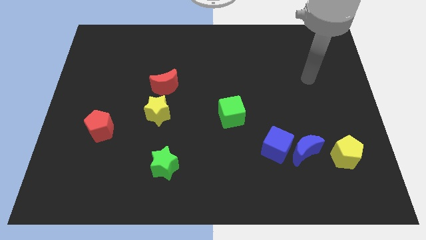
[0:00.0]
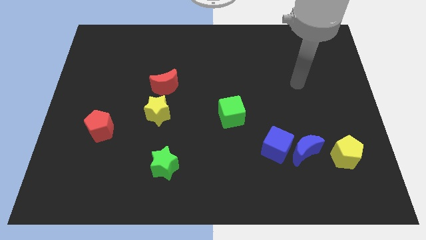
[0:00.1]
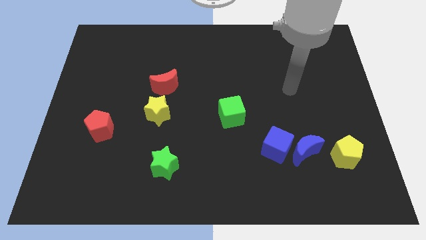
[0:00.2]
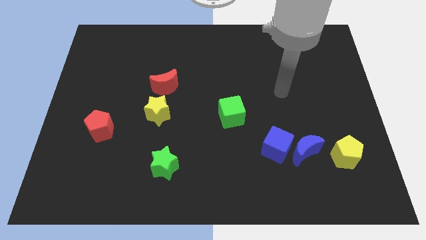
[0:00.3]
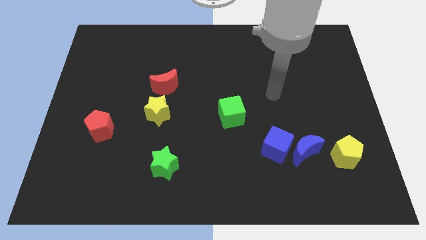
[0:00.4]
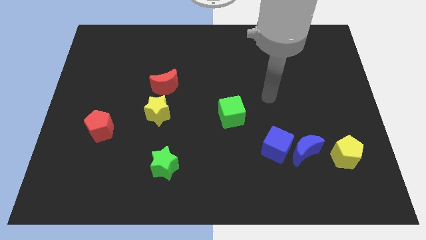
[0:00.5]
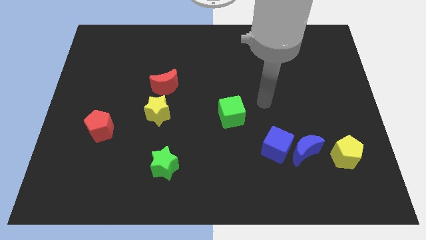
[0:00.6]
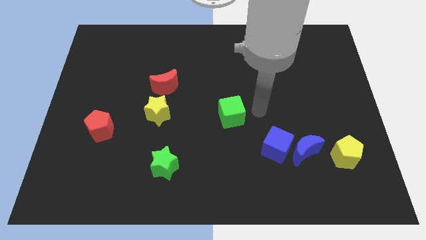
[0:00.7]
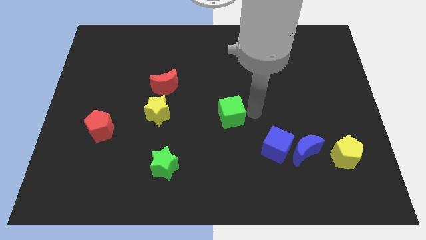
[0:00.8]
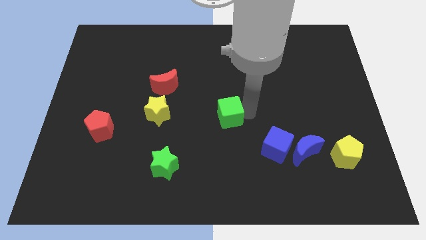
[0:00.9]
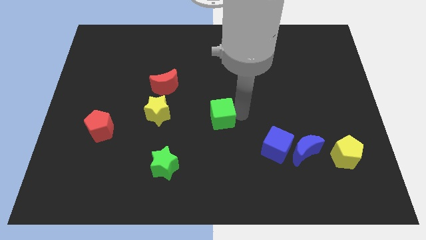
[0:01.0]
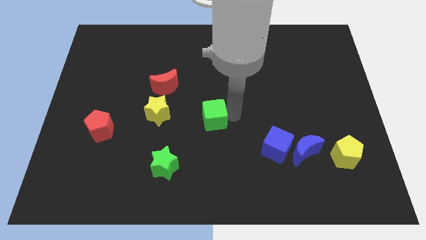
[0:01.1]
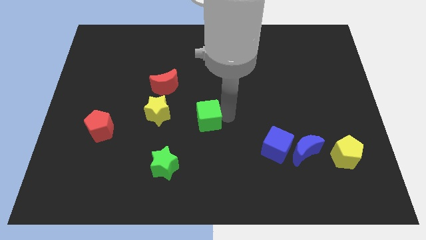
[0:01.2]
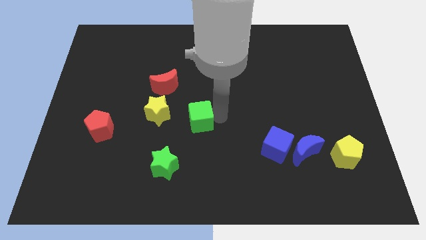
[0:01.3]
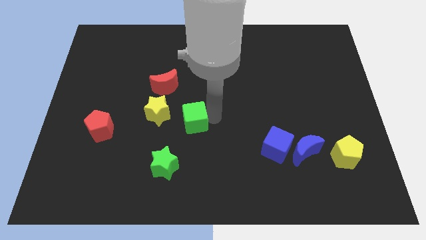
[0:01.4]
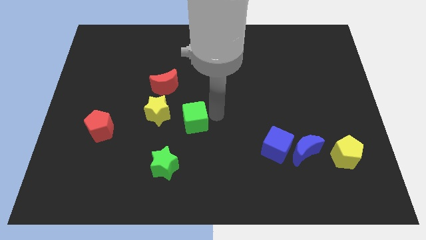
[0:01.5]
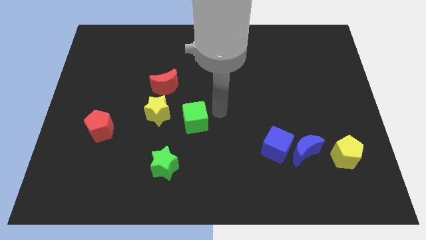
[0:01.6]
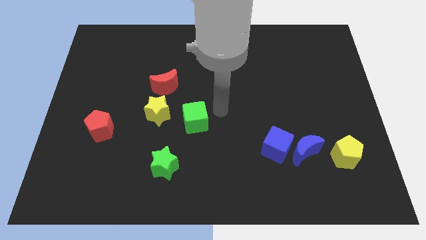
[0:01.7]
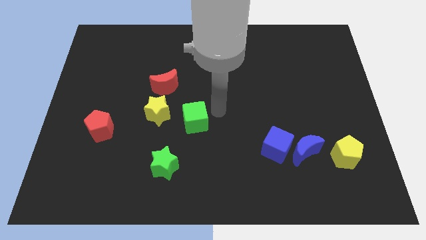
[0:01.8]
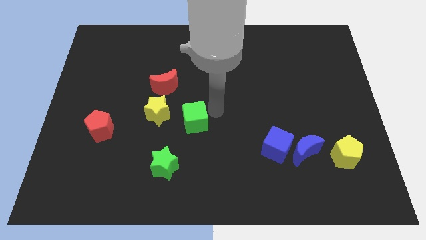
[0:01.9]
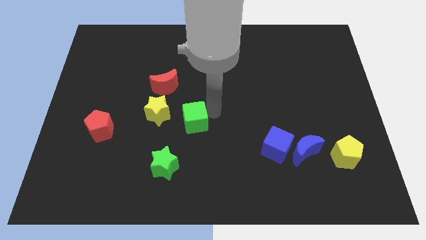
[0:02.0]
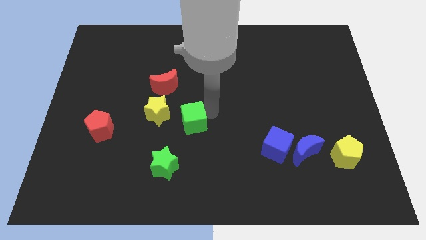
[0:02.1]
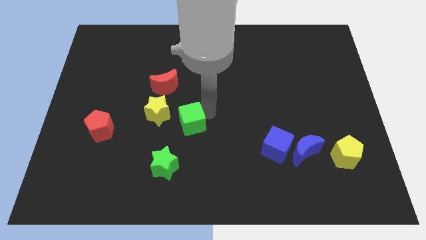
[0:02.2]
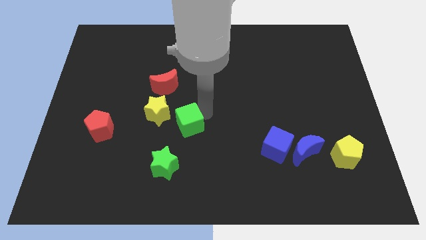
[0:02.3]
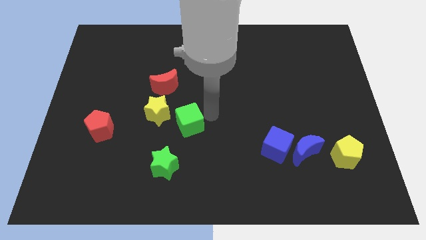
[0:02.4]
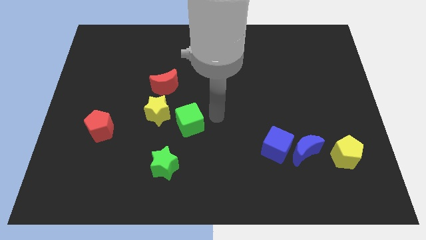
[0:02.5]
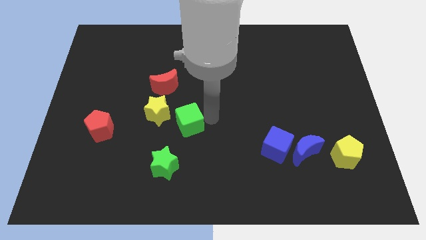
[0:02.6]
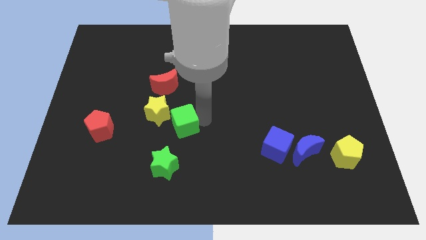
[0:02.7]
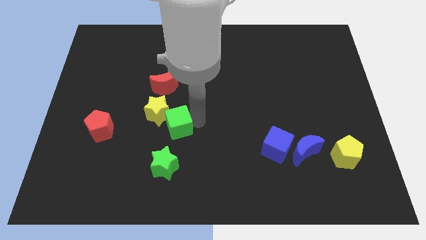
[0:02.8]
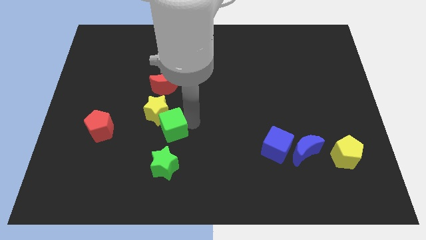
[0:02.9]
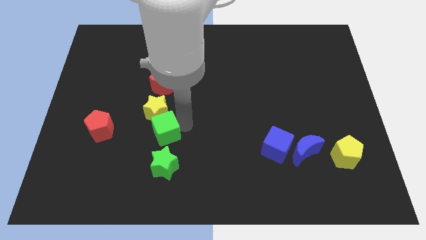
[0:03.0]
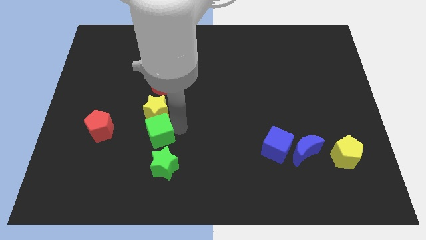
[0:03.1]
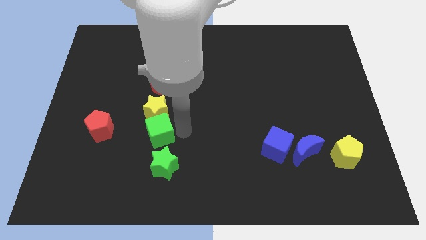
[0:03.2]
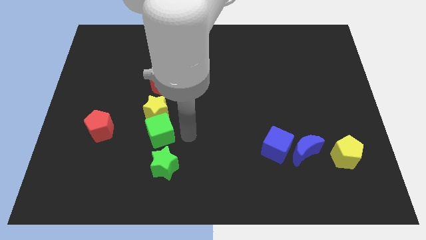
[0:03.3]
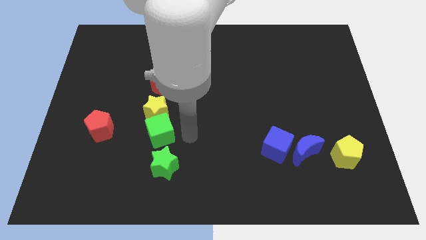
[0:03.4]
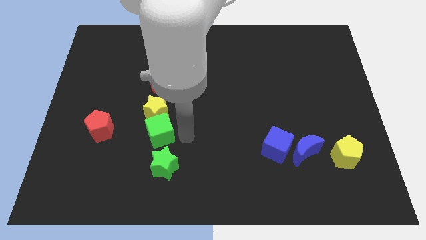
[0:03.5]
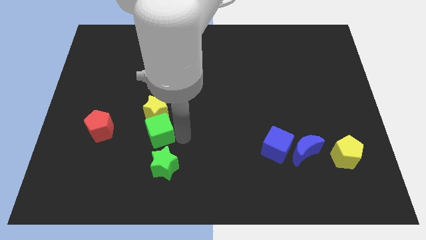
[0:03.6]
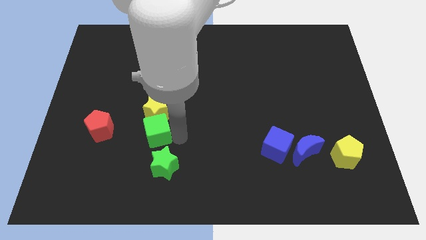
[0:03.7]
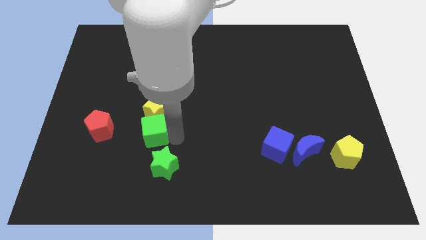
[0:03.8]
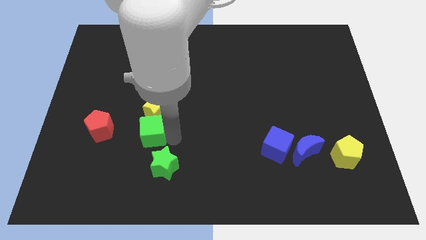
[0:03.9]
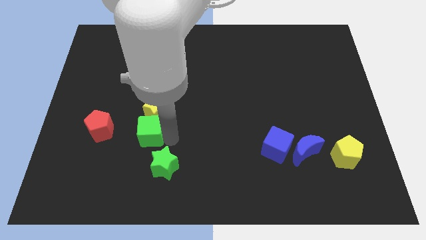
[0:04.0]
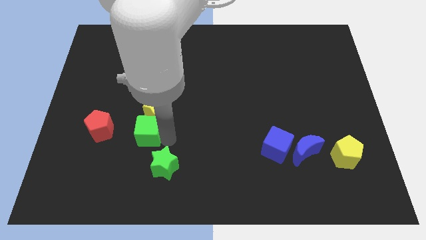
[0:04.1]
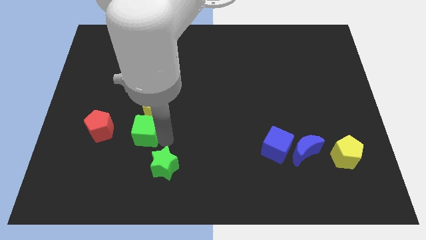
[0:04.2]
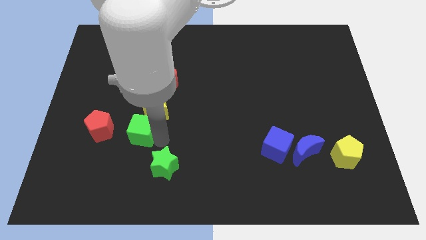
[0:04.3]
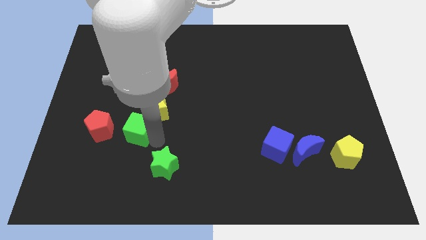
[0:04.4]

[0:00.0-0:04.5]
push the green cube to the left

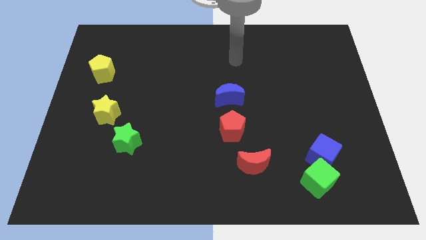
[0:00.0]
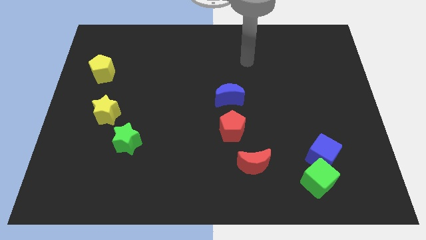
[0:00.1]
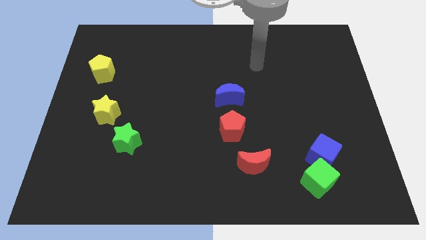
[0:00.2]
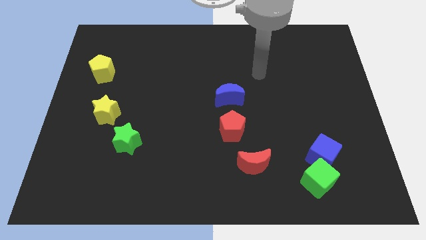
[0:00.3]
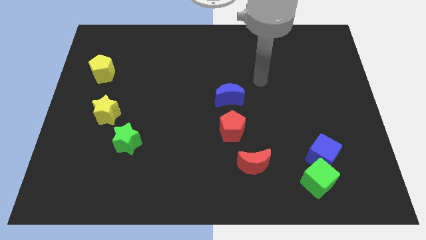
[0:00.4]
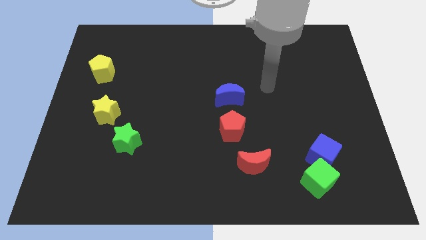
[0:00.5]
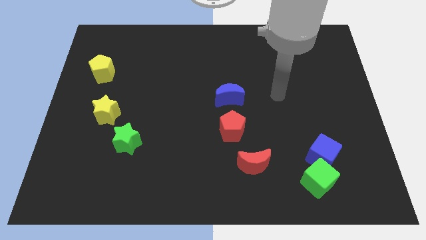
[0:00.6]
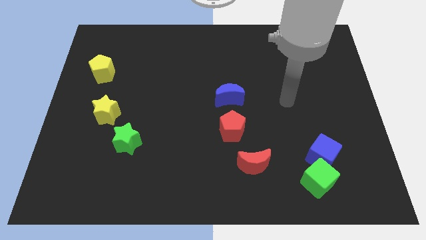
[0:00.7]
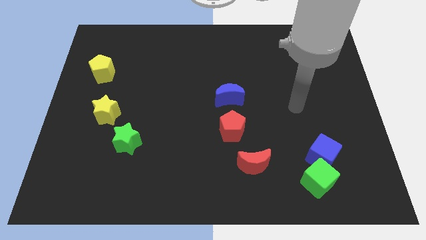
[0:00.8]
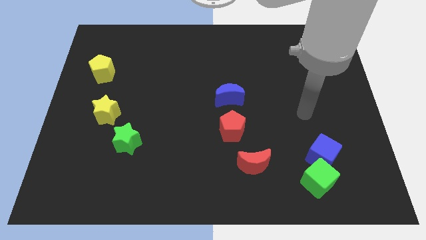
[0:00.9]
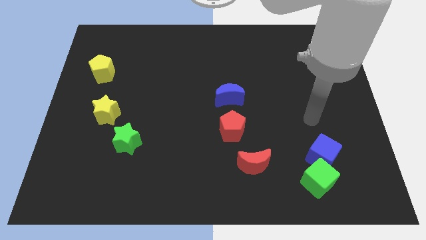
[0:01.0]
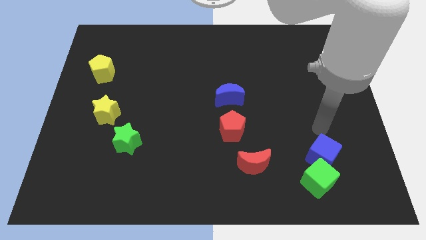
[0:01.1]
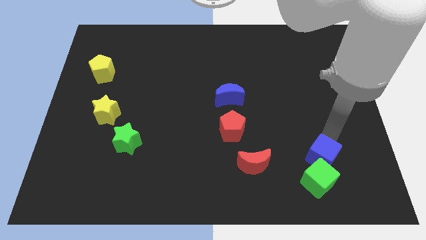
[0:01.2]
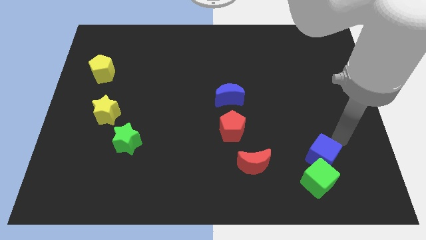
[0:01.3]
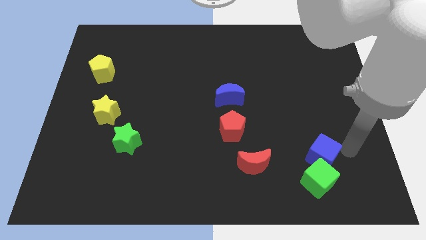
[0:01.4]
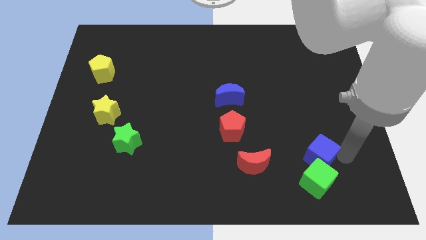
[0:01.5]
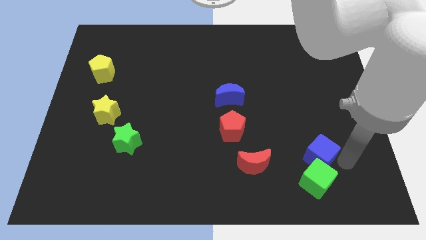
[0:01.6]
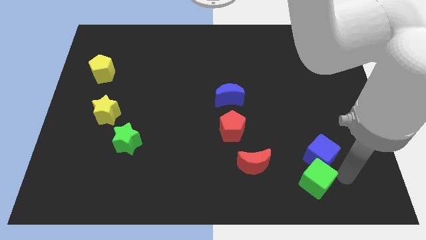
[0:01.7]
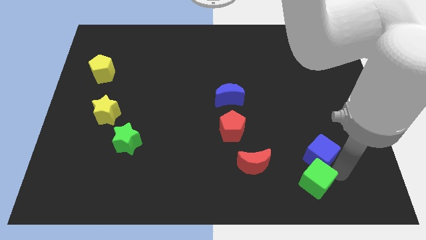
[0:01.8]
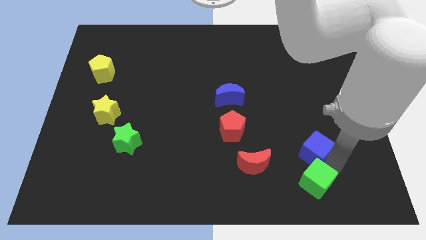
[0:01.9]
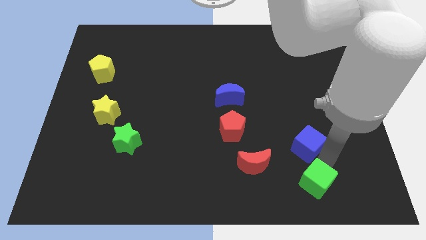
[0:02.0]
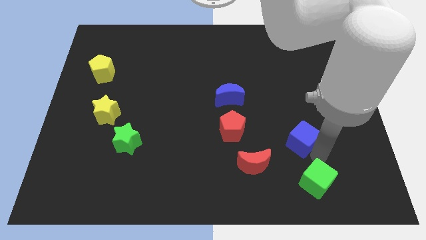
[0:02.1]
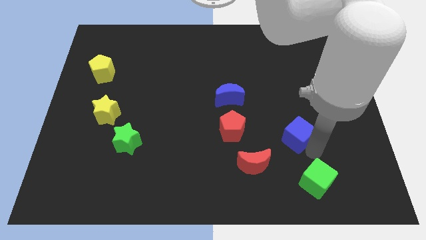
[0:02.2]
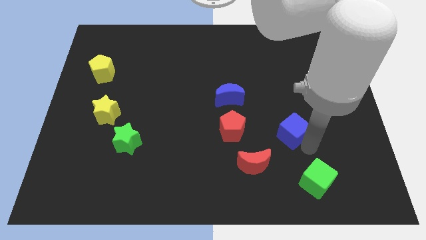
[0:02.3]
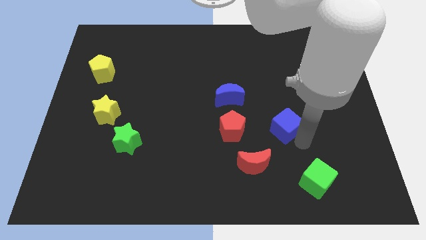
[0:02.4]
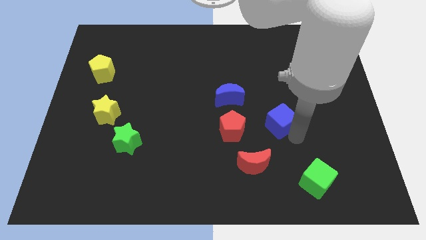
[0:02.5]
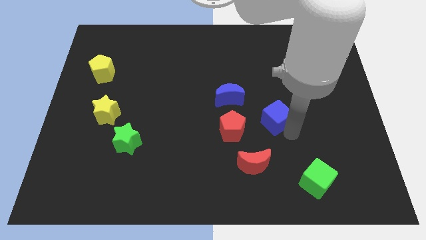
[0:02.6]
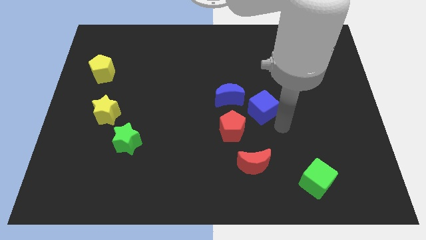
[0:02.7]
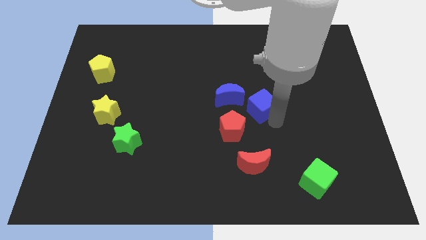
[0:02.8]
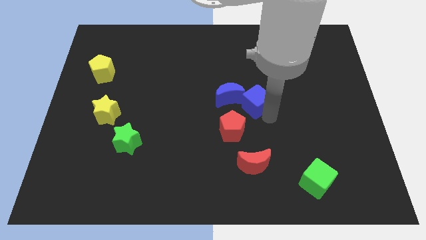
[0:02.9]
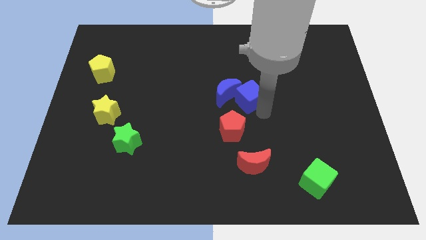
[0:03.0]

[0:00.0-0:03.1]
move the blue cube up and to the left diagonally

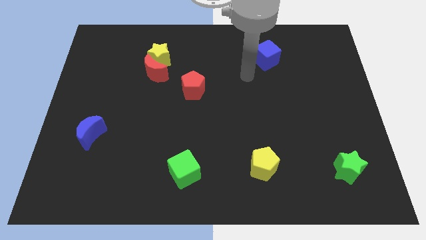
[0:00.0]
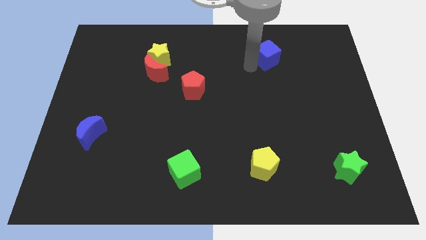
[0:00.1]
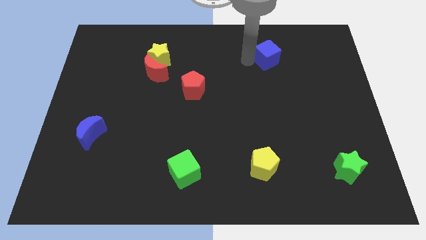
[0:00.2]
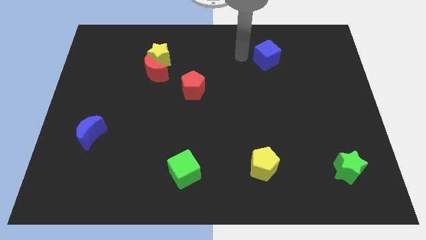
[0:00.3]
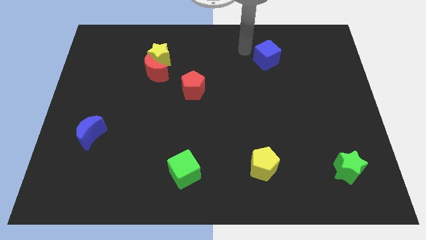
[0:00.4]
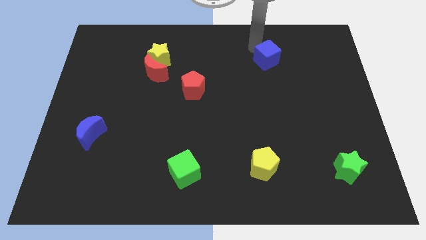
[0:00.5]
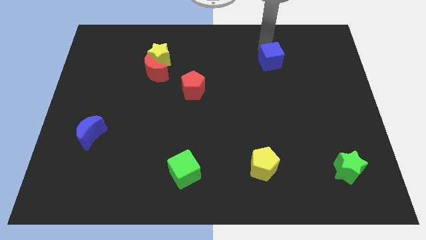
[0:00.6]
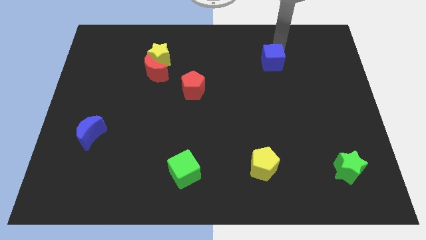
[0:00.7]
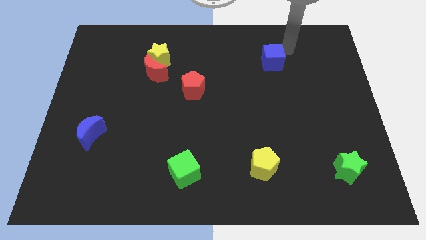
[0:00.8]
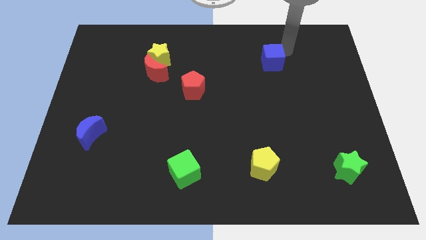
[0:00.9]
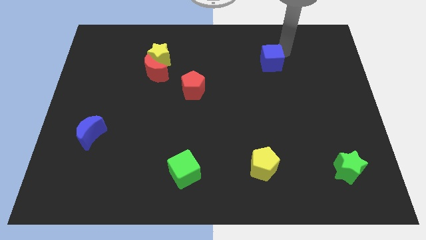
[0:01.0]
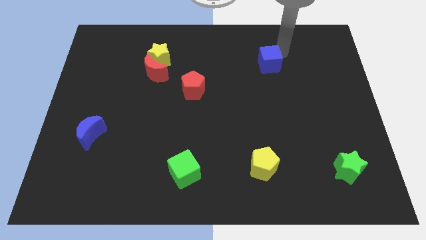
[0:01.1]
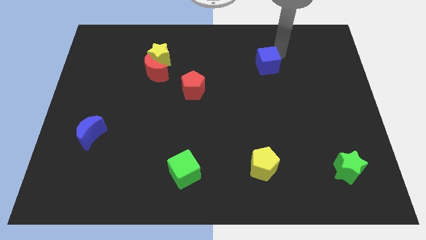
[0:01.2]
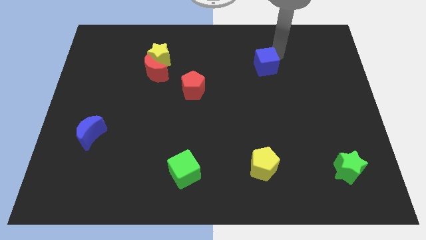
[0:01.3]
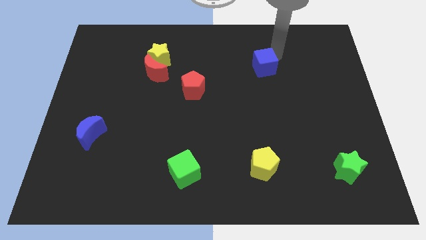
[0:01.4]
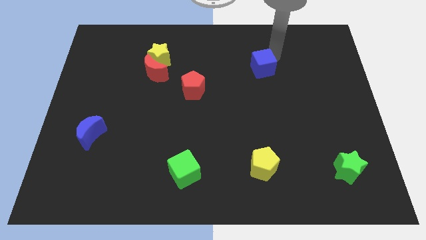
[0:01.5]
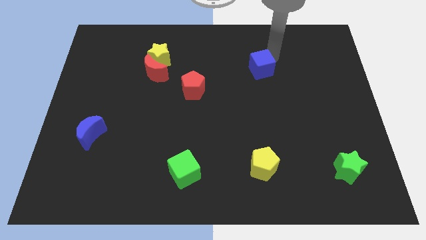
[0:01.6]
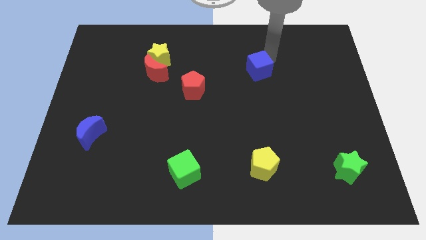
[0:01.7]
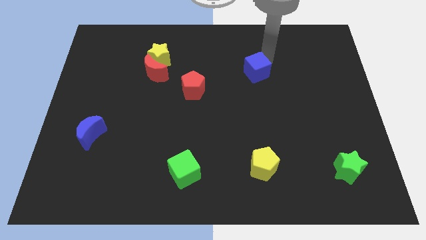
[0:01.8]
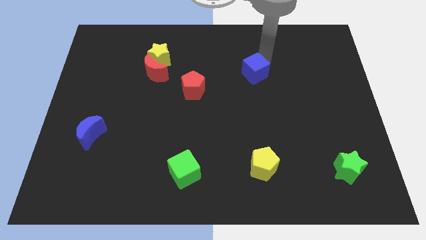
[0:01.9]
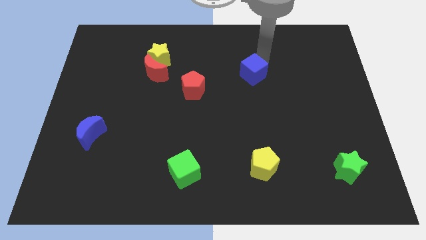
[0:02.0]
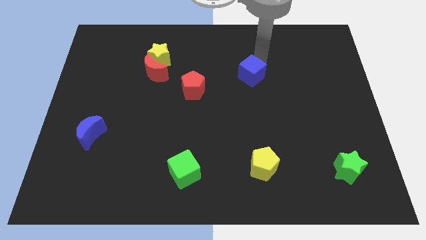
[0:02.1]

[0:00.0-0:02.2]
slightly slide the blue cube downwards and to the left
